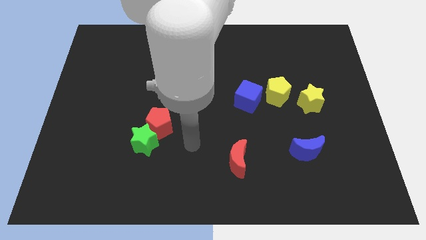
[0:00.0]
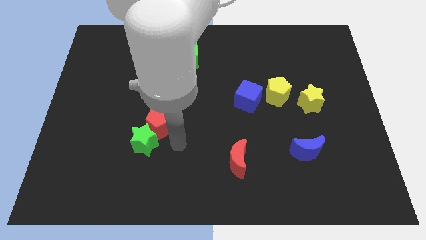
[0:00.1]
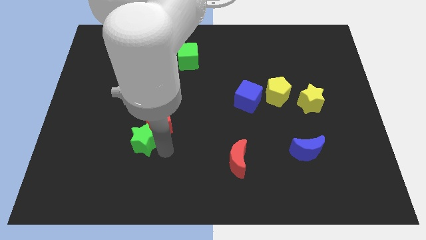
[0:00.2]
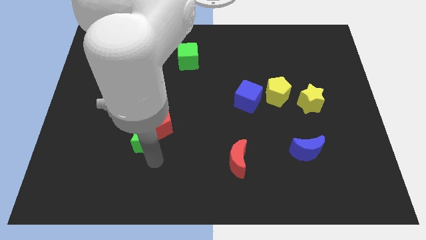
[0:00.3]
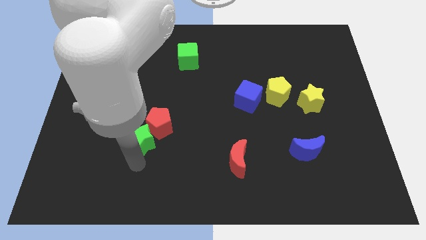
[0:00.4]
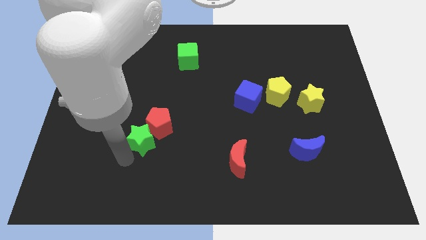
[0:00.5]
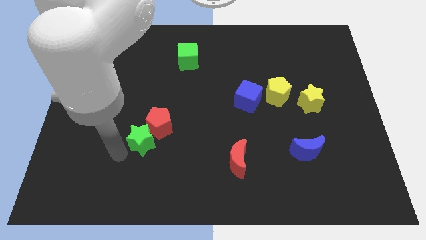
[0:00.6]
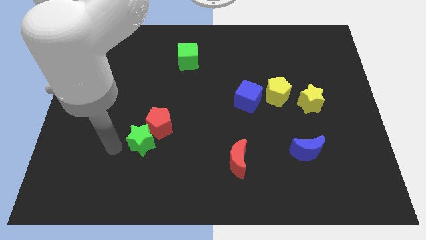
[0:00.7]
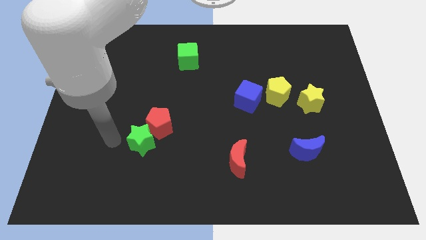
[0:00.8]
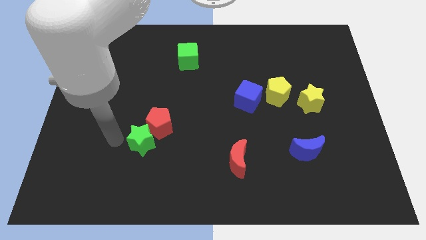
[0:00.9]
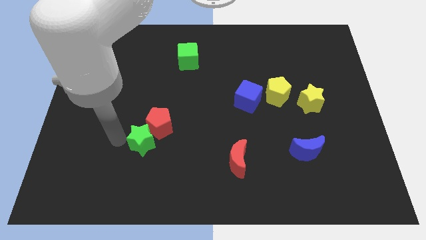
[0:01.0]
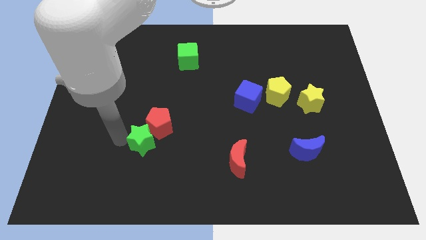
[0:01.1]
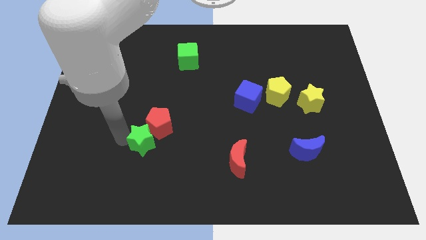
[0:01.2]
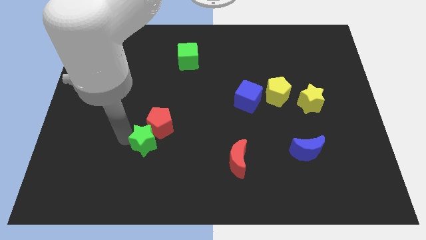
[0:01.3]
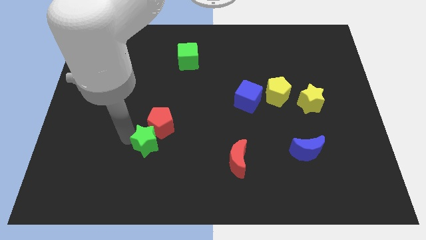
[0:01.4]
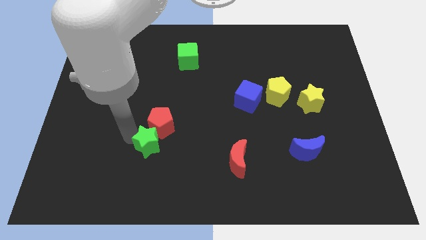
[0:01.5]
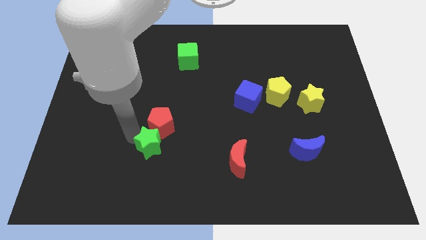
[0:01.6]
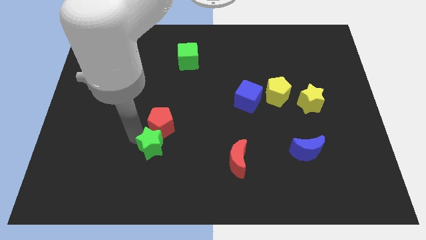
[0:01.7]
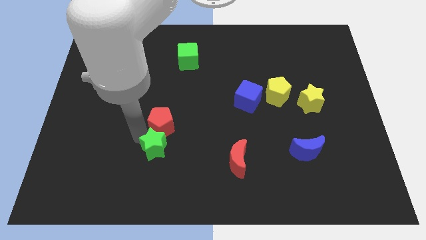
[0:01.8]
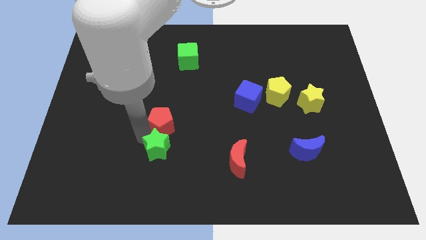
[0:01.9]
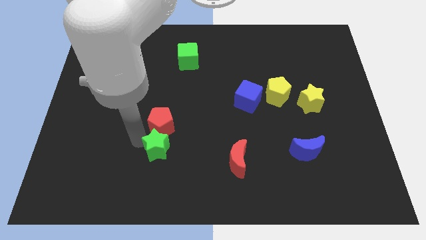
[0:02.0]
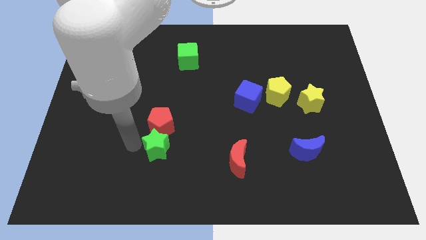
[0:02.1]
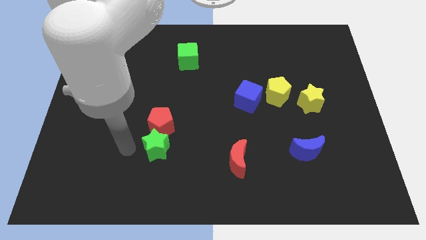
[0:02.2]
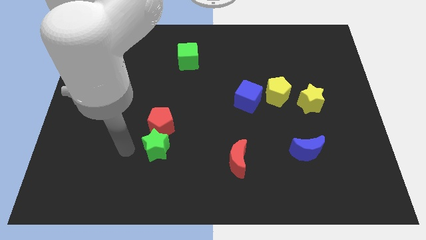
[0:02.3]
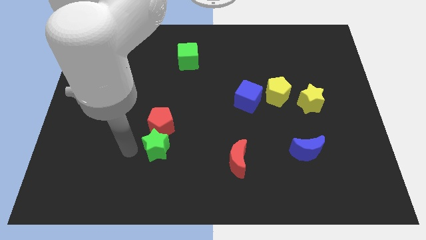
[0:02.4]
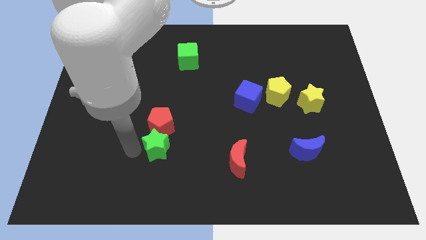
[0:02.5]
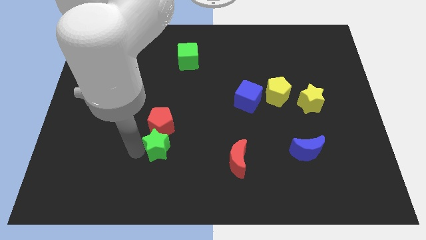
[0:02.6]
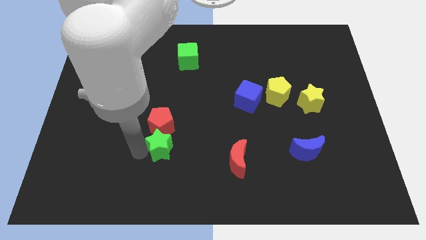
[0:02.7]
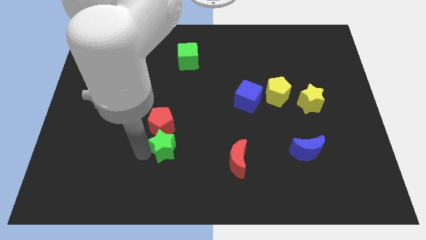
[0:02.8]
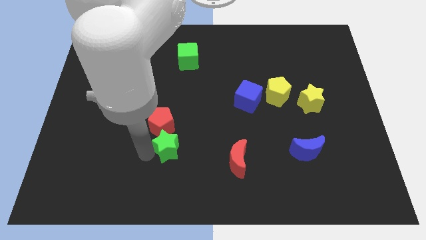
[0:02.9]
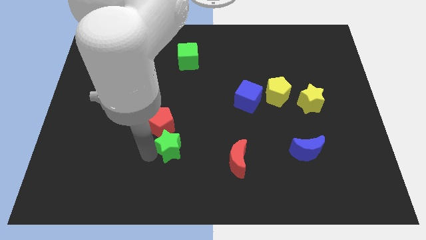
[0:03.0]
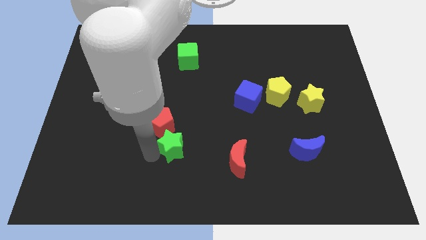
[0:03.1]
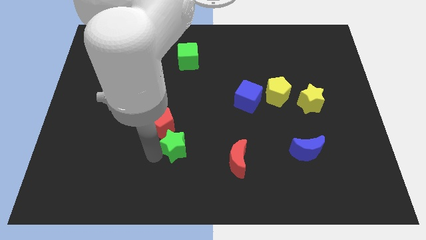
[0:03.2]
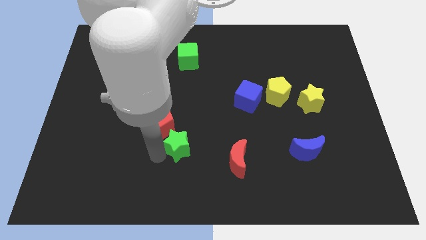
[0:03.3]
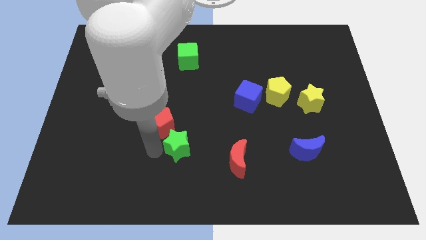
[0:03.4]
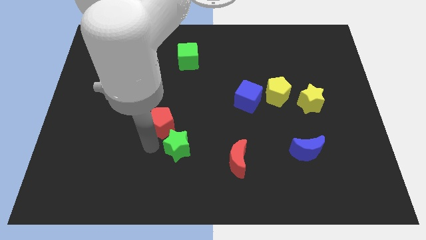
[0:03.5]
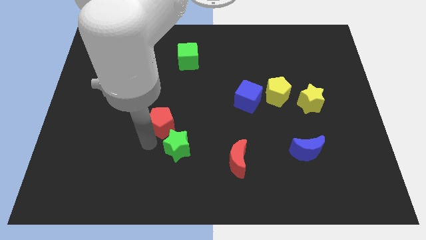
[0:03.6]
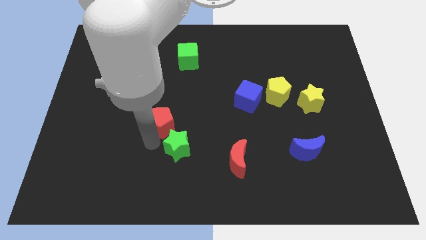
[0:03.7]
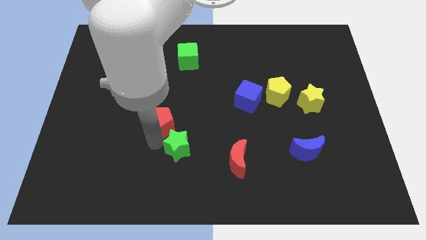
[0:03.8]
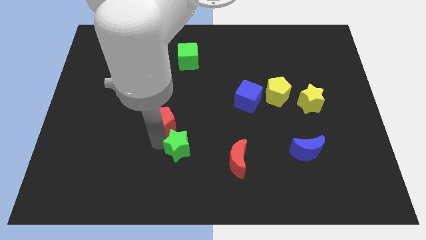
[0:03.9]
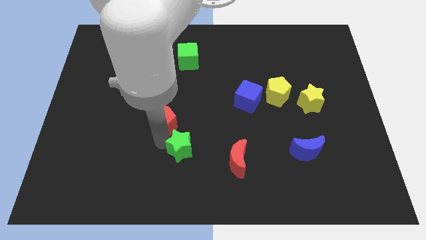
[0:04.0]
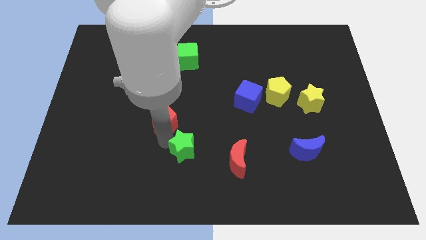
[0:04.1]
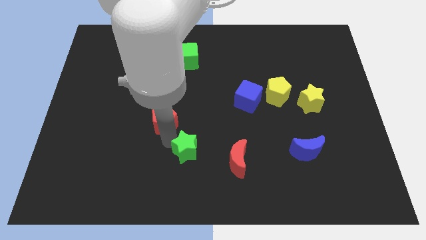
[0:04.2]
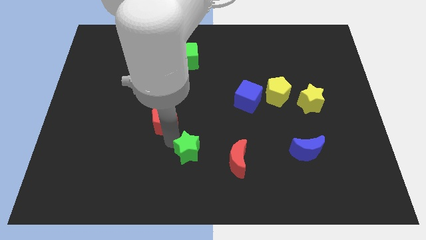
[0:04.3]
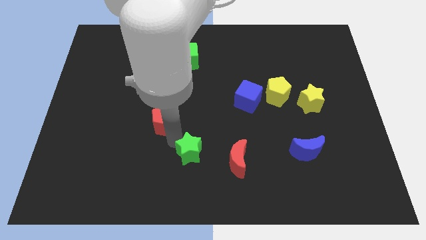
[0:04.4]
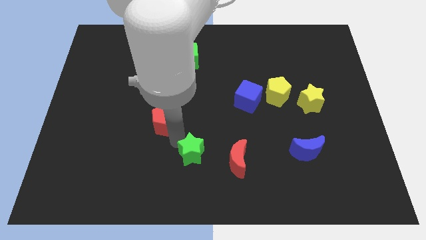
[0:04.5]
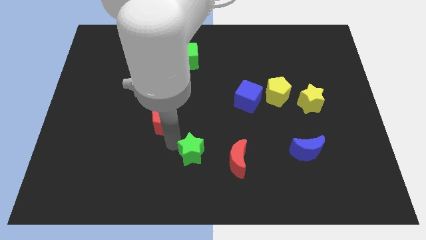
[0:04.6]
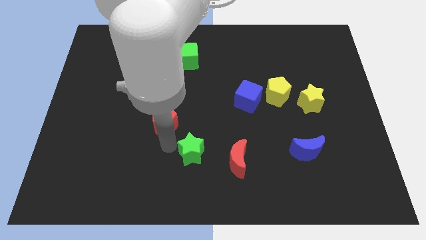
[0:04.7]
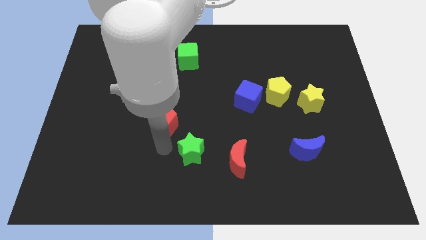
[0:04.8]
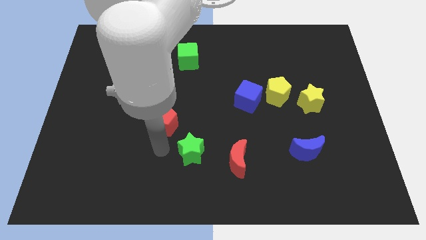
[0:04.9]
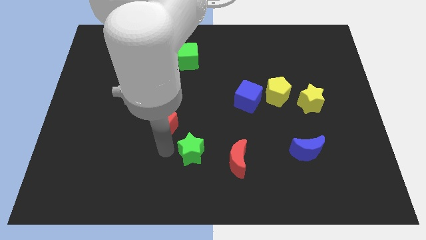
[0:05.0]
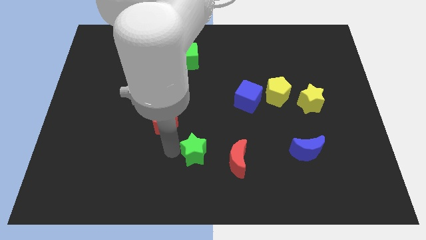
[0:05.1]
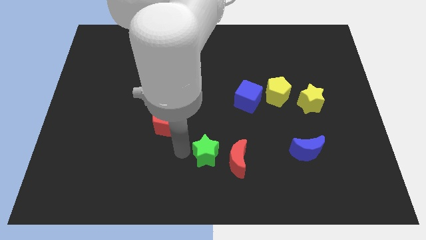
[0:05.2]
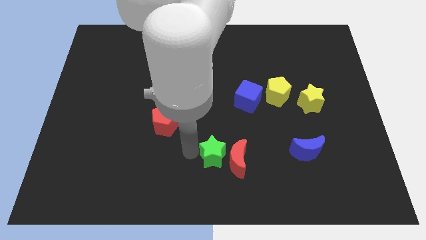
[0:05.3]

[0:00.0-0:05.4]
move the green star towards the red moon

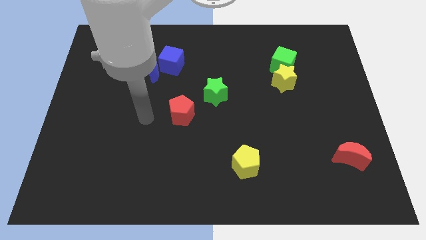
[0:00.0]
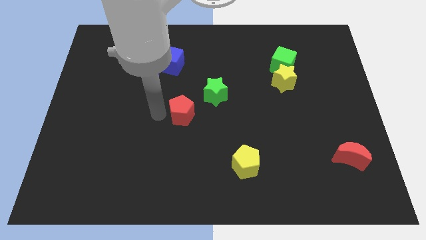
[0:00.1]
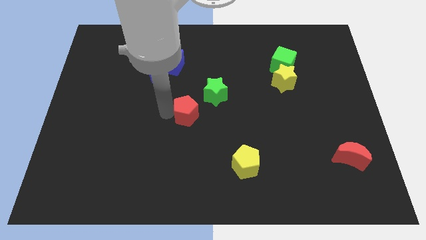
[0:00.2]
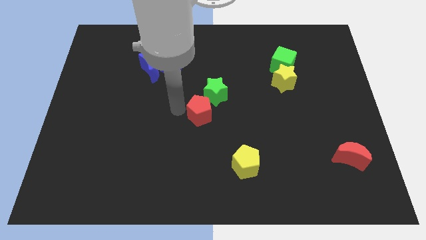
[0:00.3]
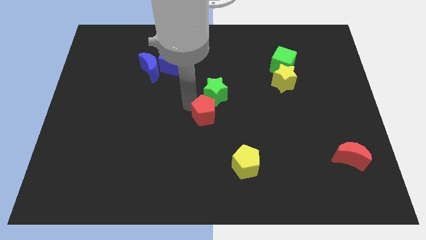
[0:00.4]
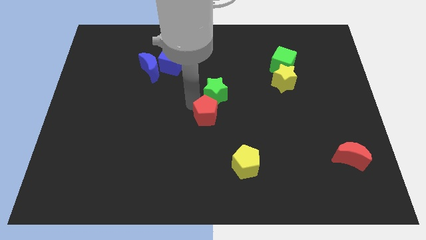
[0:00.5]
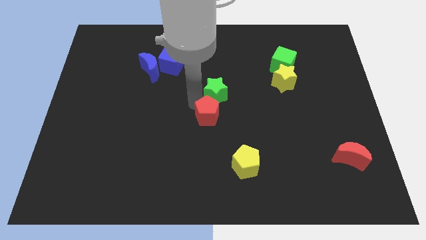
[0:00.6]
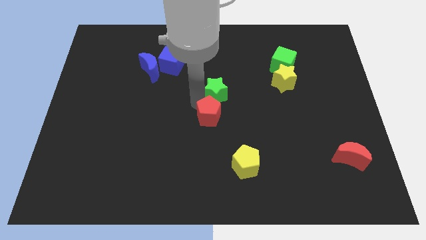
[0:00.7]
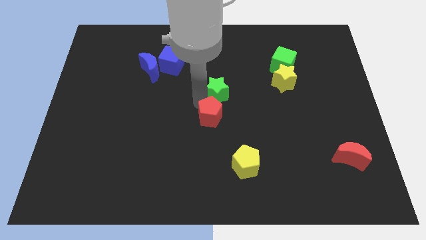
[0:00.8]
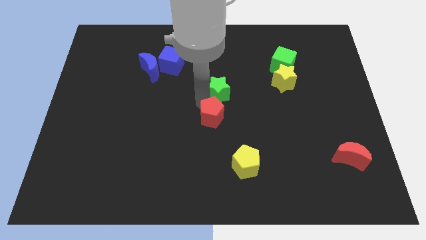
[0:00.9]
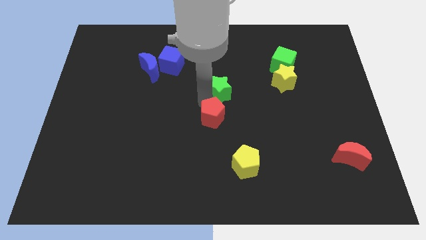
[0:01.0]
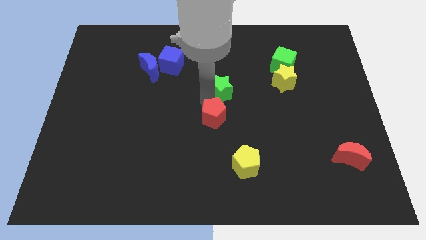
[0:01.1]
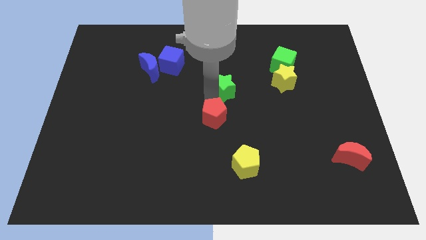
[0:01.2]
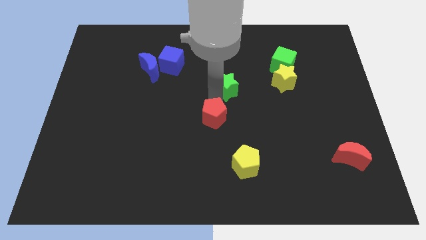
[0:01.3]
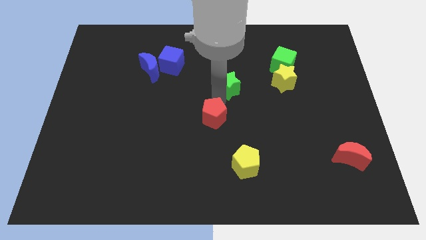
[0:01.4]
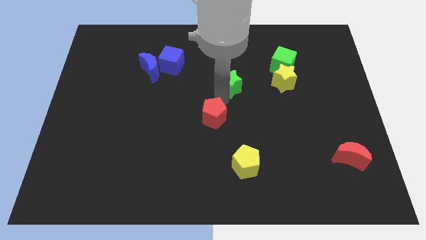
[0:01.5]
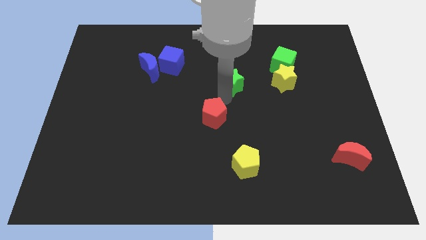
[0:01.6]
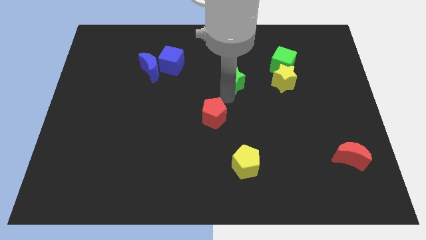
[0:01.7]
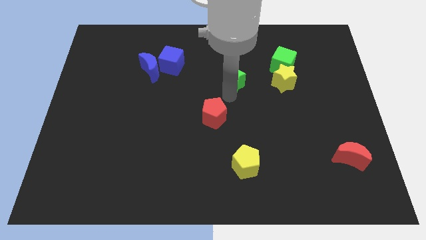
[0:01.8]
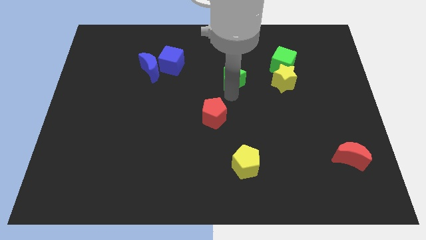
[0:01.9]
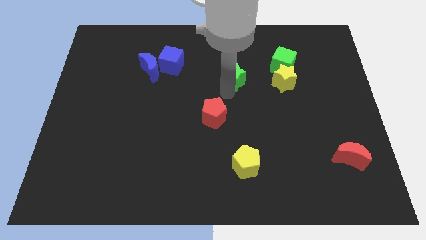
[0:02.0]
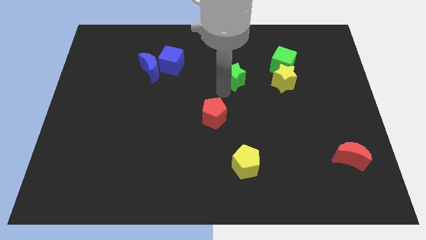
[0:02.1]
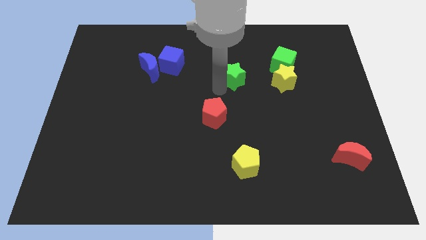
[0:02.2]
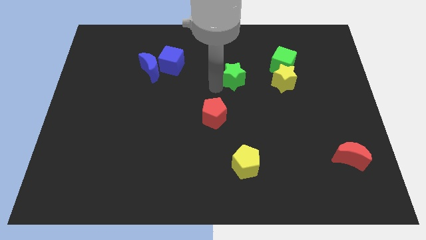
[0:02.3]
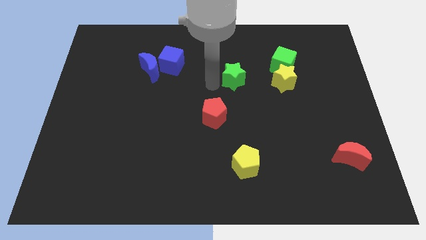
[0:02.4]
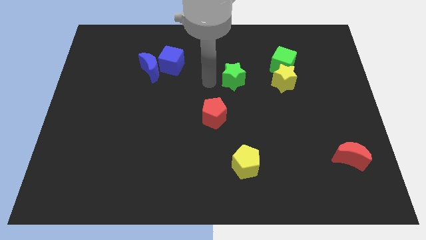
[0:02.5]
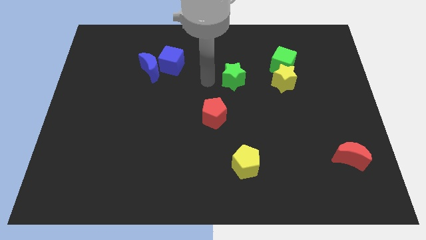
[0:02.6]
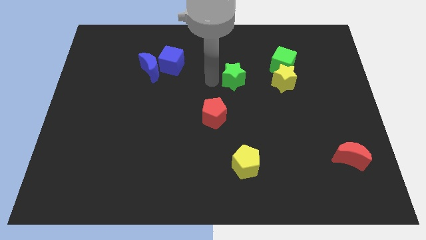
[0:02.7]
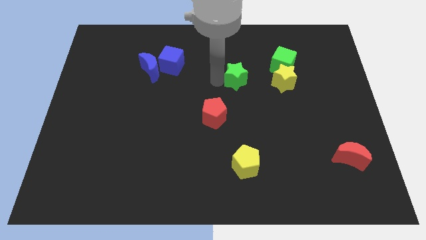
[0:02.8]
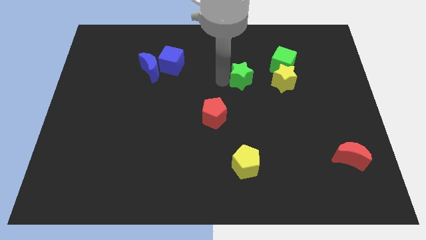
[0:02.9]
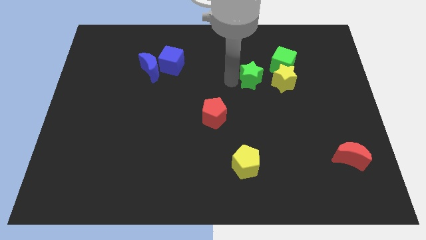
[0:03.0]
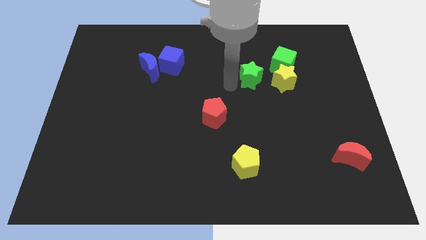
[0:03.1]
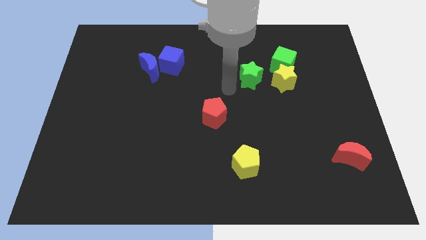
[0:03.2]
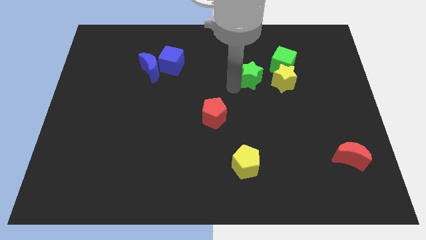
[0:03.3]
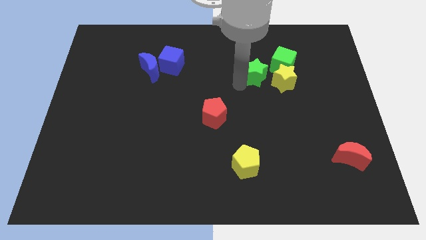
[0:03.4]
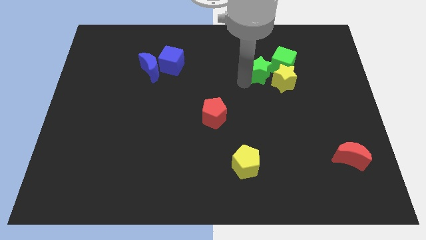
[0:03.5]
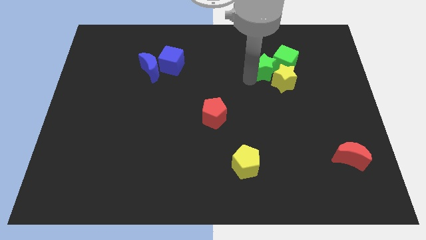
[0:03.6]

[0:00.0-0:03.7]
slide the green star next to the green cube
